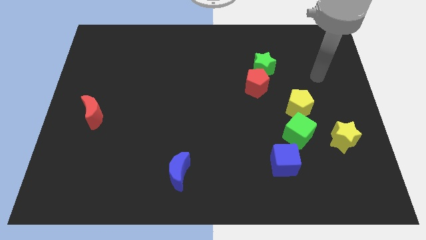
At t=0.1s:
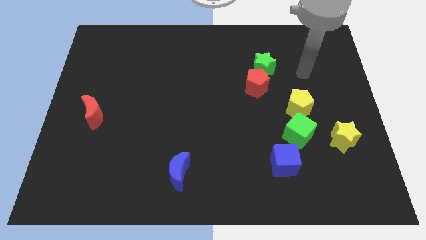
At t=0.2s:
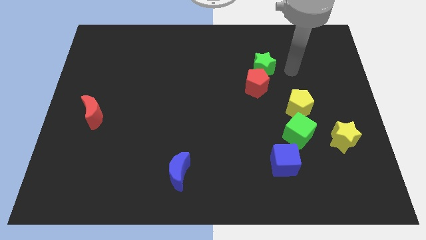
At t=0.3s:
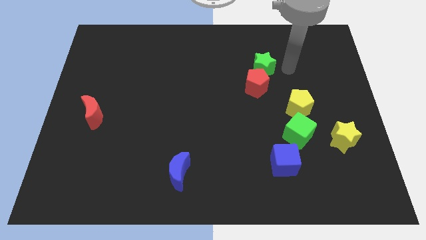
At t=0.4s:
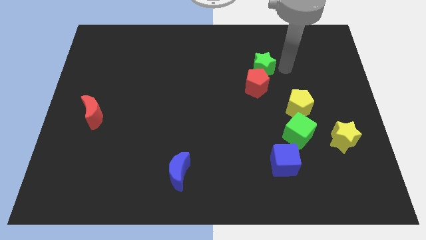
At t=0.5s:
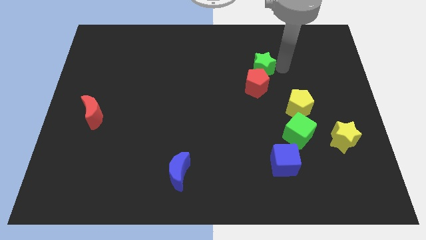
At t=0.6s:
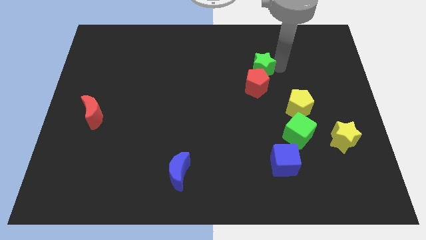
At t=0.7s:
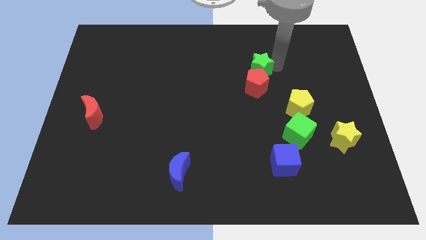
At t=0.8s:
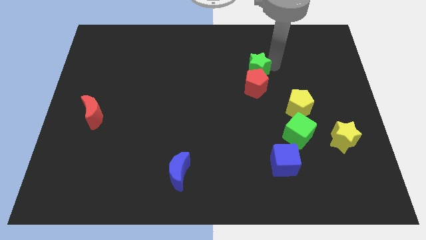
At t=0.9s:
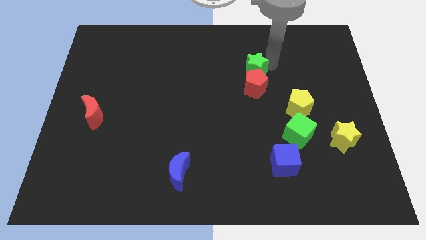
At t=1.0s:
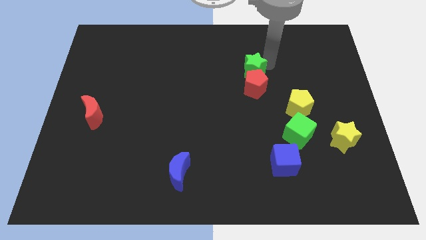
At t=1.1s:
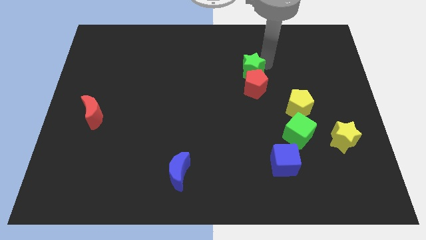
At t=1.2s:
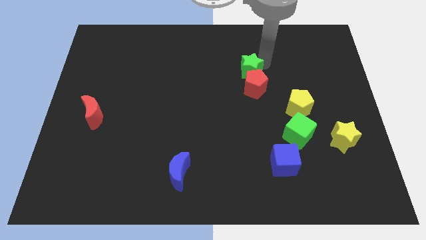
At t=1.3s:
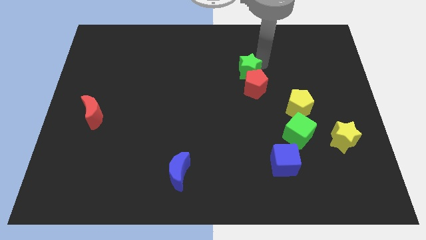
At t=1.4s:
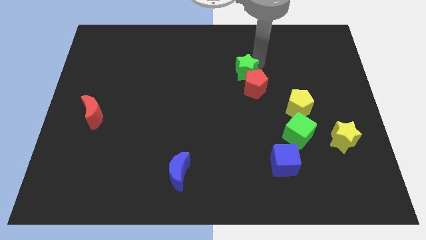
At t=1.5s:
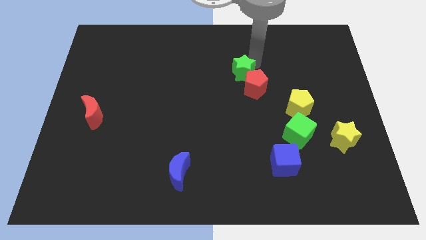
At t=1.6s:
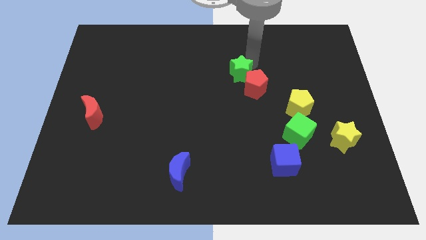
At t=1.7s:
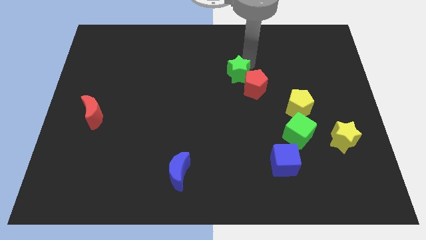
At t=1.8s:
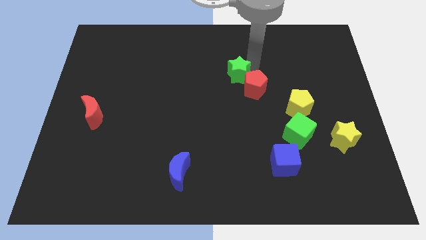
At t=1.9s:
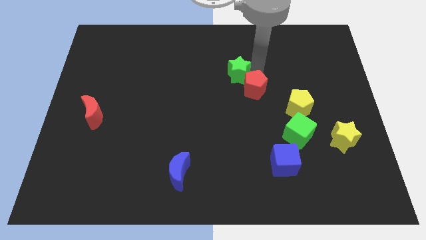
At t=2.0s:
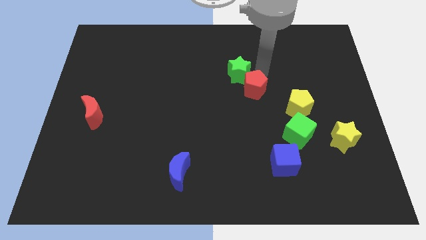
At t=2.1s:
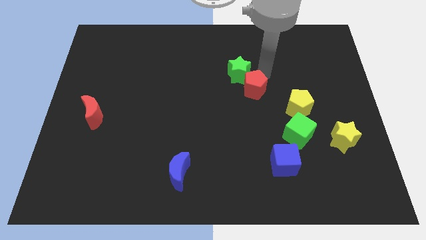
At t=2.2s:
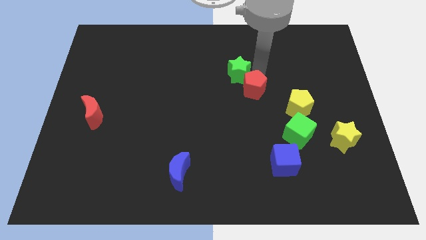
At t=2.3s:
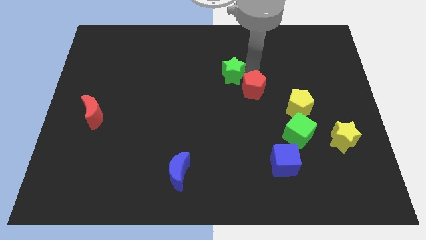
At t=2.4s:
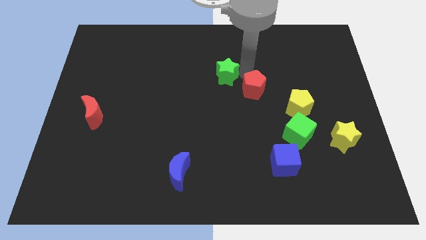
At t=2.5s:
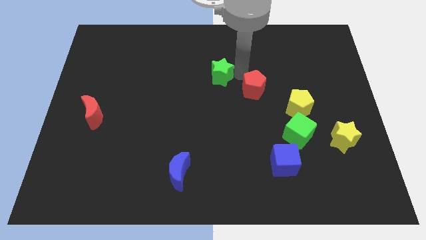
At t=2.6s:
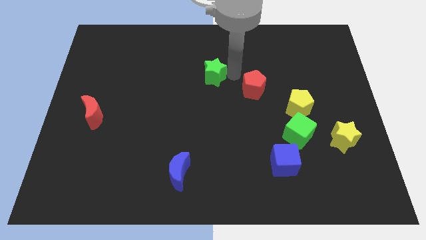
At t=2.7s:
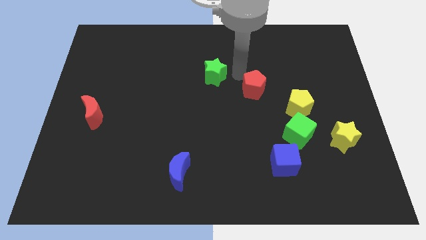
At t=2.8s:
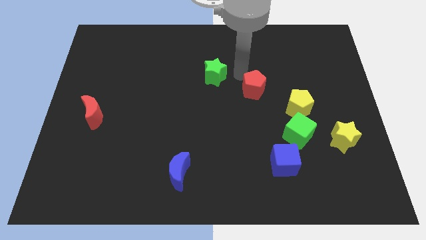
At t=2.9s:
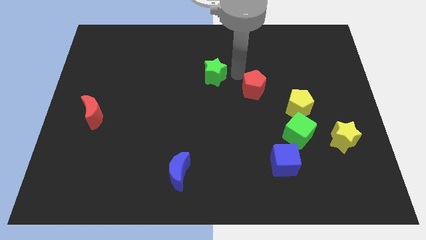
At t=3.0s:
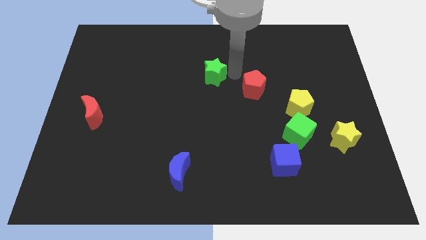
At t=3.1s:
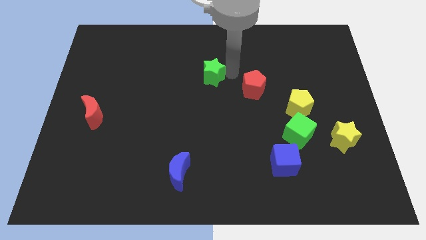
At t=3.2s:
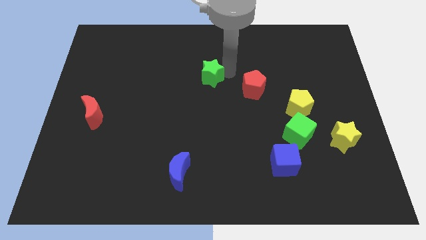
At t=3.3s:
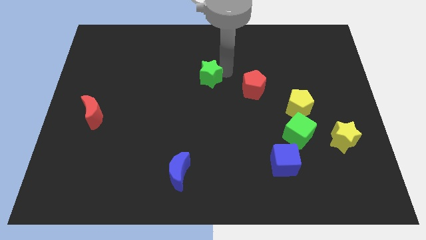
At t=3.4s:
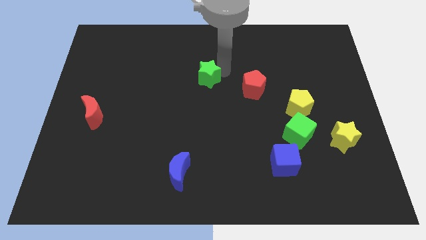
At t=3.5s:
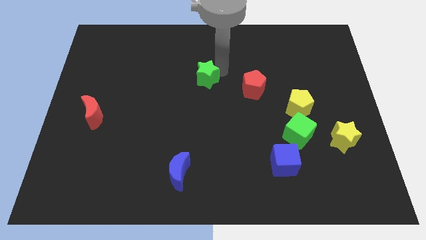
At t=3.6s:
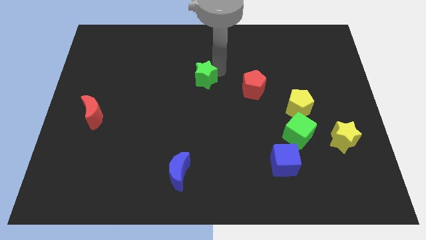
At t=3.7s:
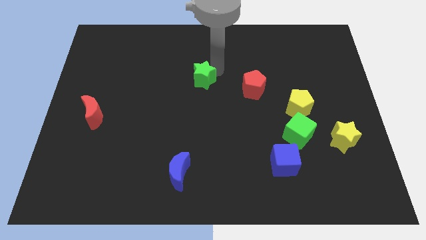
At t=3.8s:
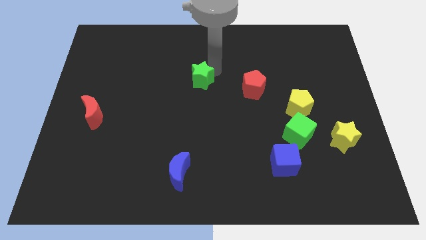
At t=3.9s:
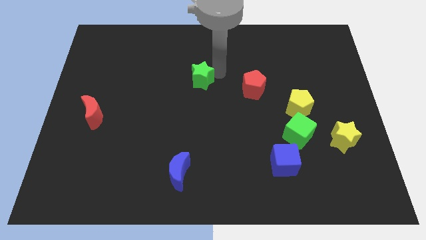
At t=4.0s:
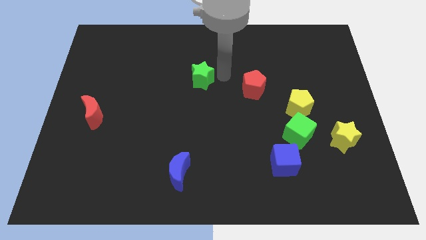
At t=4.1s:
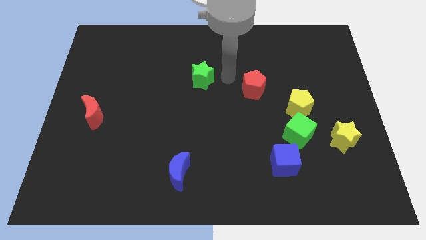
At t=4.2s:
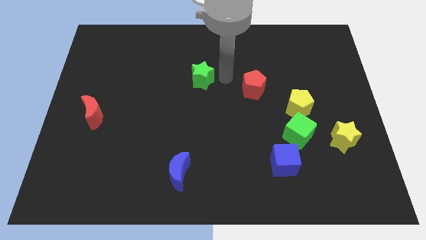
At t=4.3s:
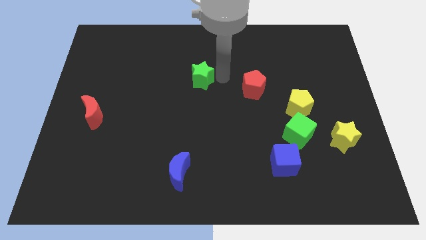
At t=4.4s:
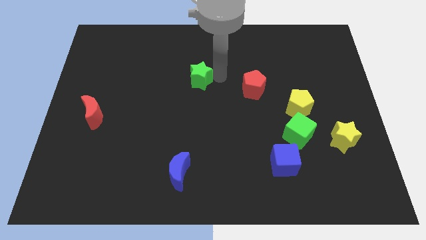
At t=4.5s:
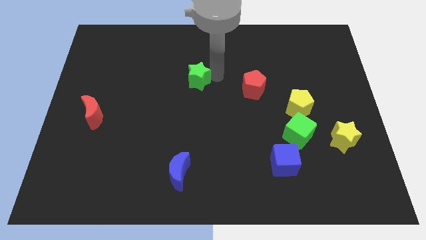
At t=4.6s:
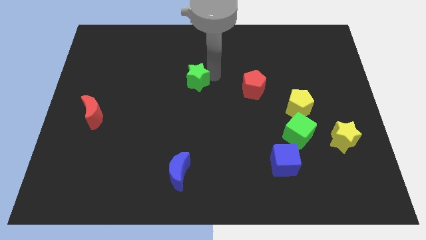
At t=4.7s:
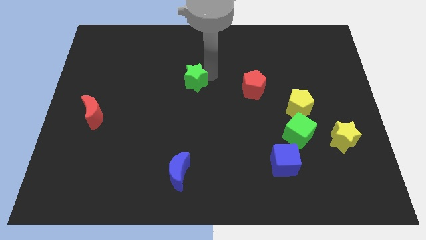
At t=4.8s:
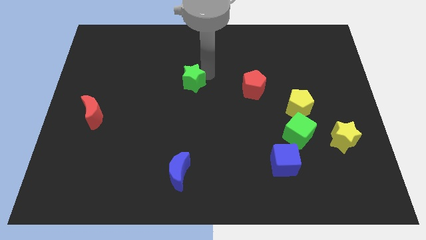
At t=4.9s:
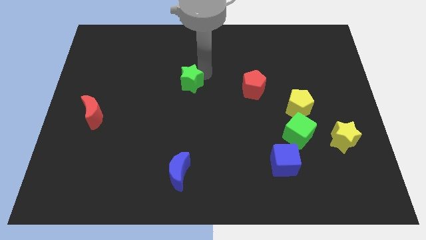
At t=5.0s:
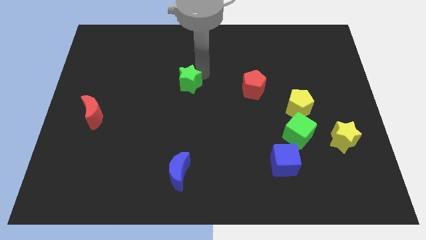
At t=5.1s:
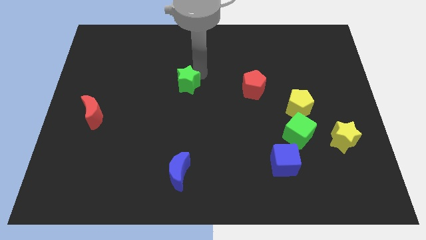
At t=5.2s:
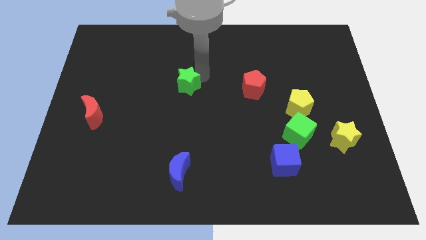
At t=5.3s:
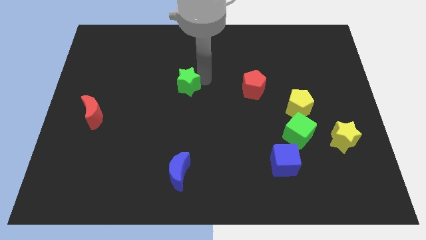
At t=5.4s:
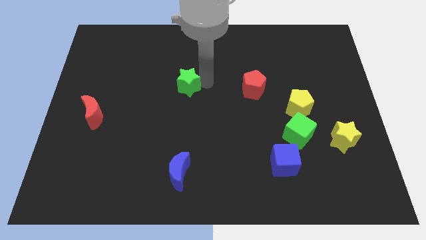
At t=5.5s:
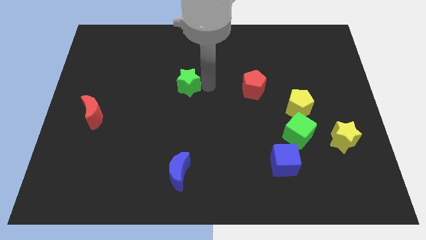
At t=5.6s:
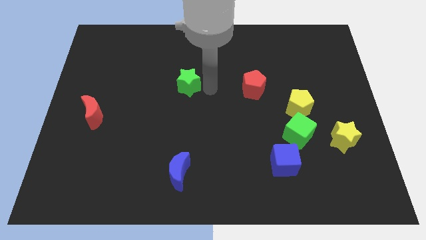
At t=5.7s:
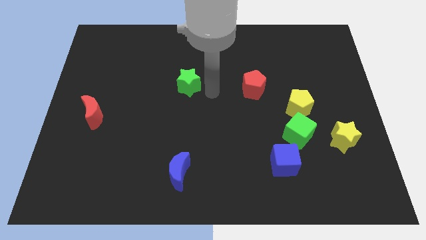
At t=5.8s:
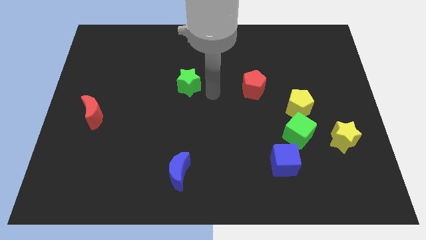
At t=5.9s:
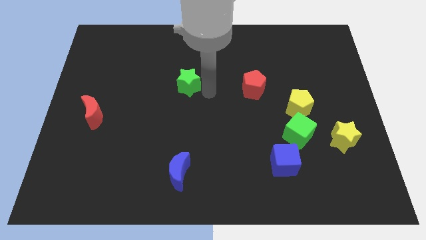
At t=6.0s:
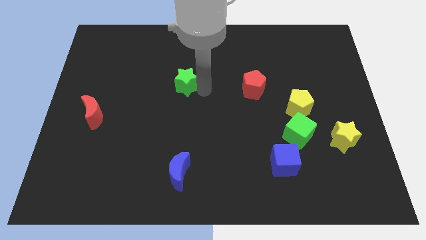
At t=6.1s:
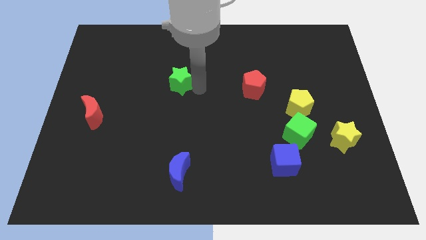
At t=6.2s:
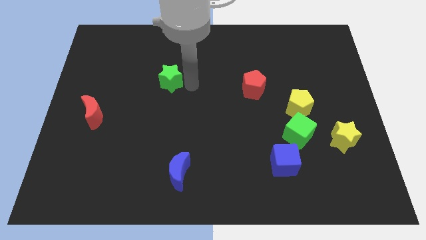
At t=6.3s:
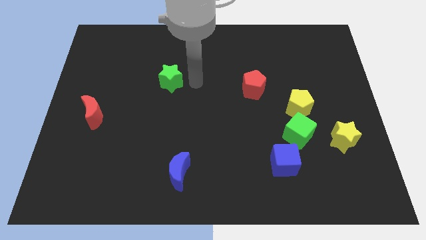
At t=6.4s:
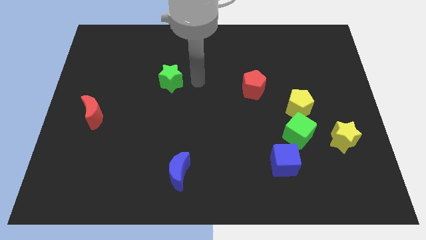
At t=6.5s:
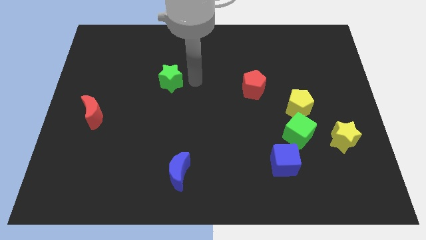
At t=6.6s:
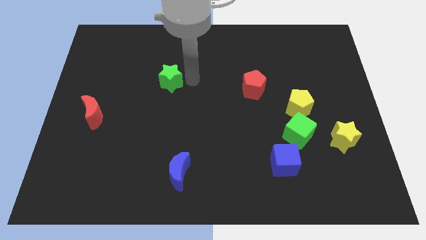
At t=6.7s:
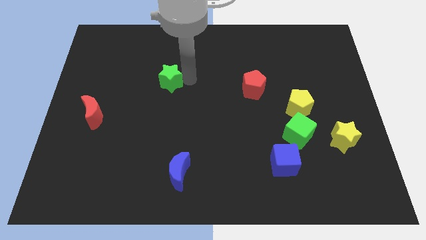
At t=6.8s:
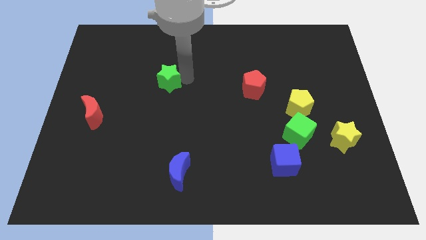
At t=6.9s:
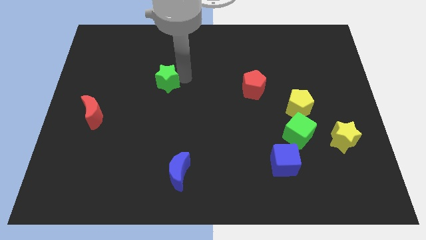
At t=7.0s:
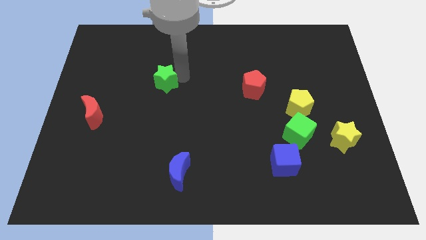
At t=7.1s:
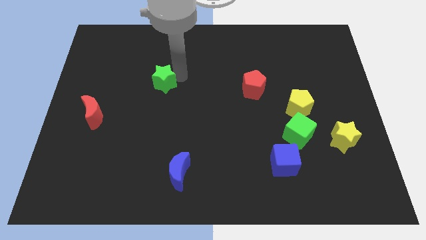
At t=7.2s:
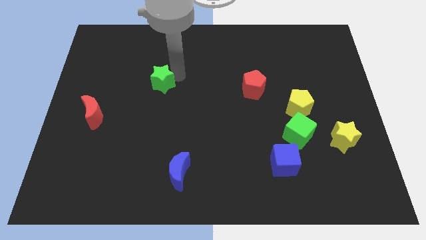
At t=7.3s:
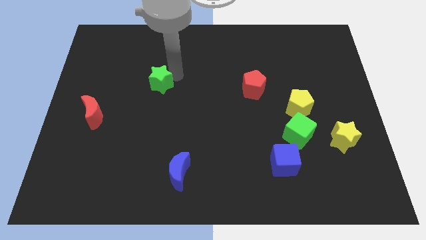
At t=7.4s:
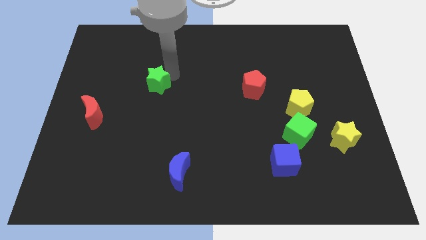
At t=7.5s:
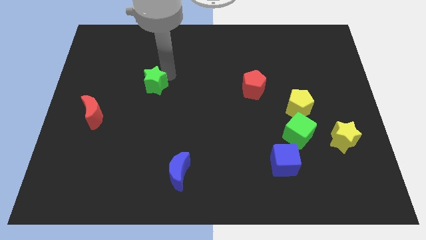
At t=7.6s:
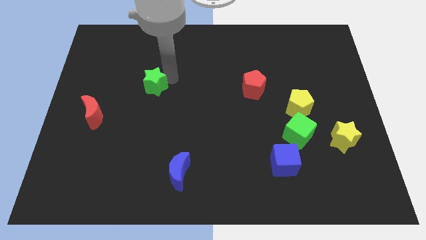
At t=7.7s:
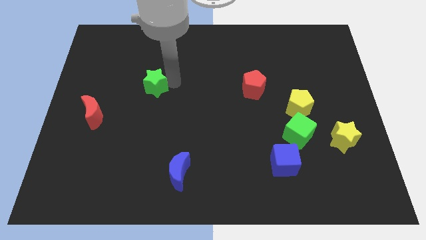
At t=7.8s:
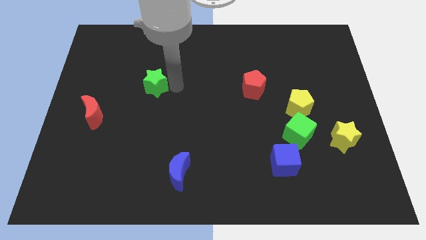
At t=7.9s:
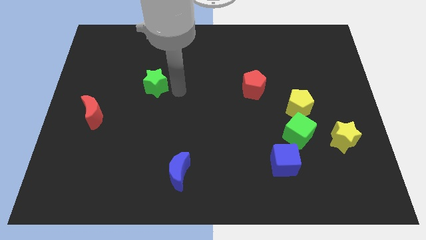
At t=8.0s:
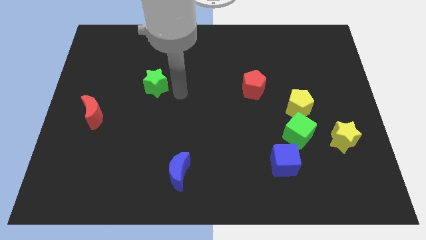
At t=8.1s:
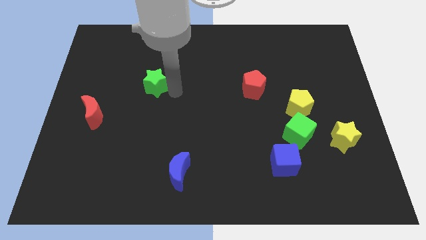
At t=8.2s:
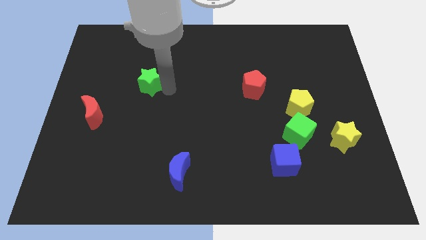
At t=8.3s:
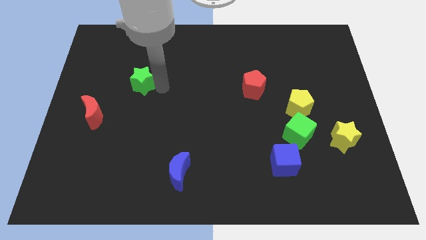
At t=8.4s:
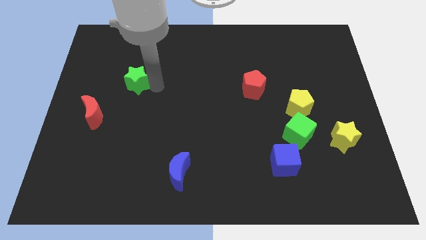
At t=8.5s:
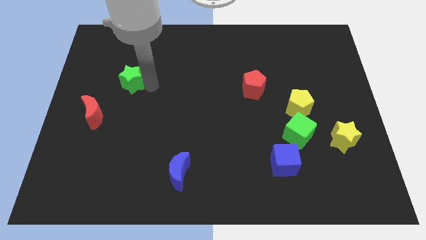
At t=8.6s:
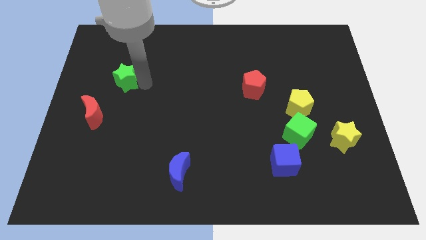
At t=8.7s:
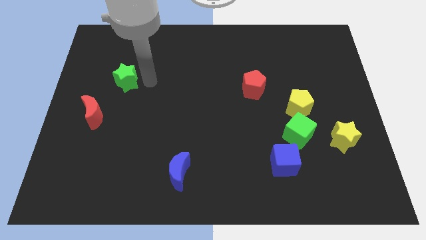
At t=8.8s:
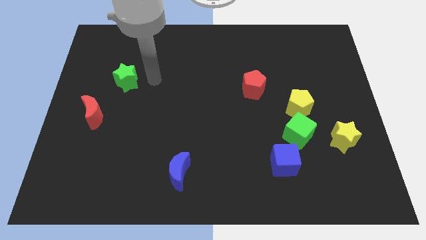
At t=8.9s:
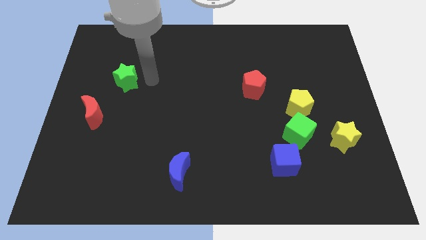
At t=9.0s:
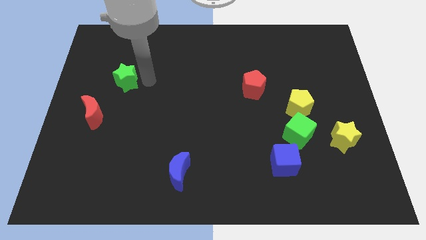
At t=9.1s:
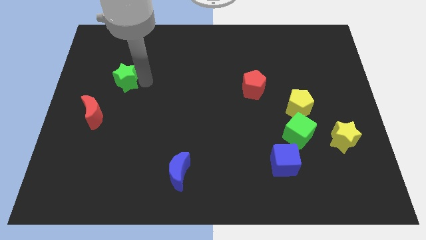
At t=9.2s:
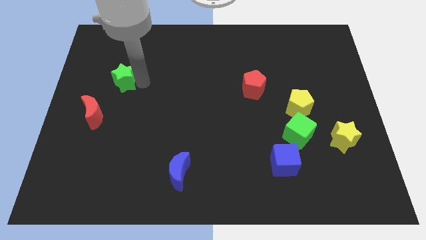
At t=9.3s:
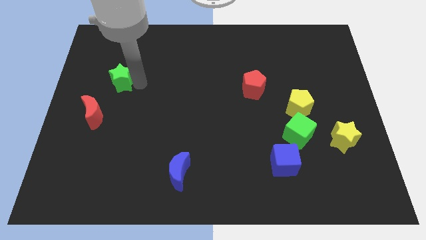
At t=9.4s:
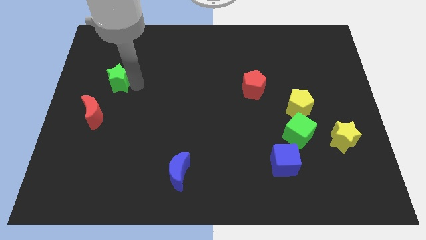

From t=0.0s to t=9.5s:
move the green star above the red moon
